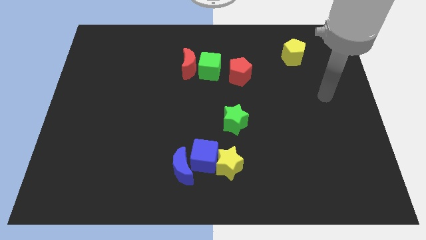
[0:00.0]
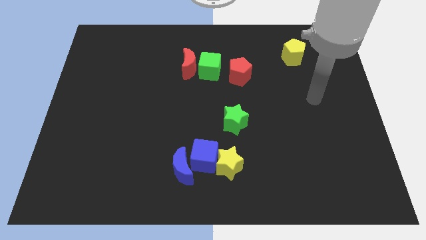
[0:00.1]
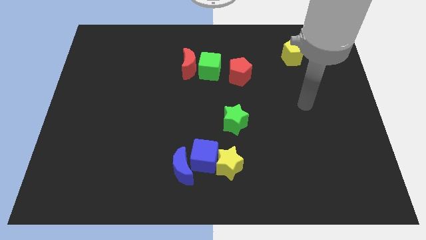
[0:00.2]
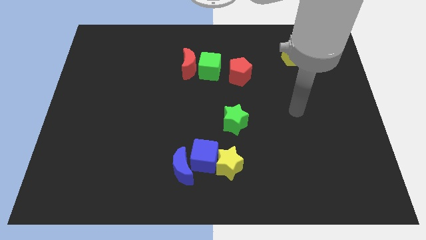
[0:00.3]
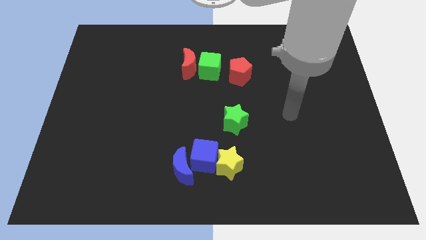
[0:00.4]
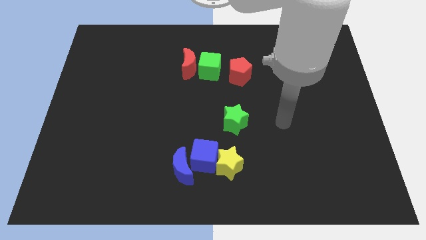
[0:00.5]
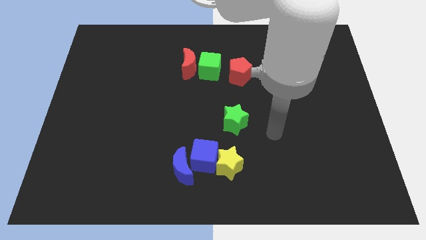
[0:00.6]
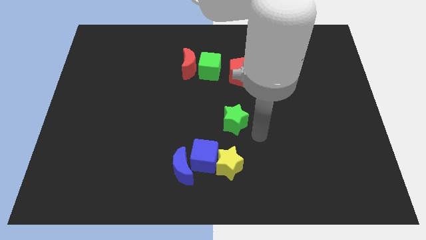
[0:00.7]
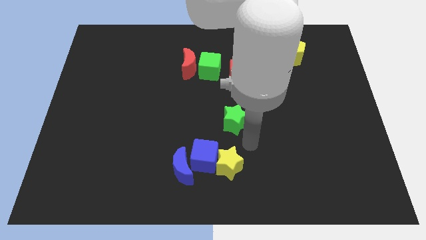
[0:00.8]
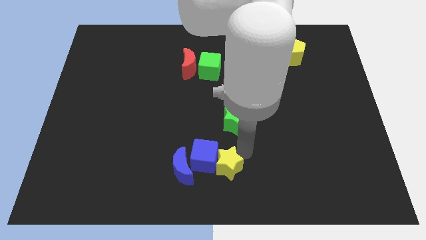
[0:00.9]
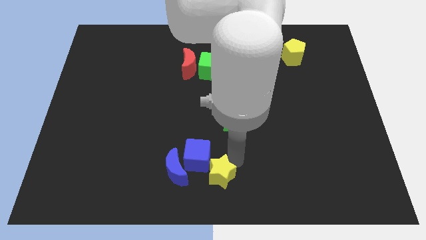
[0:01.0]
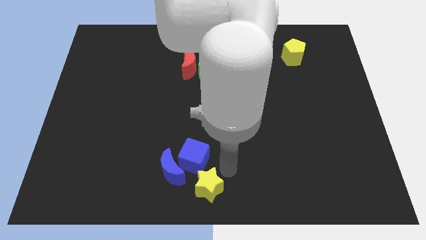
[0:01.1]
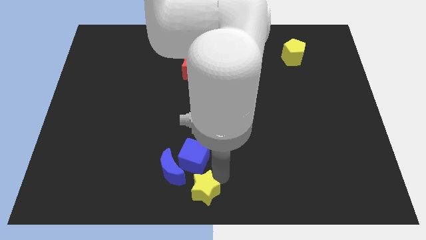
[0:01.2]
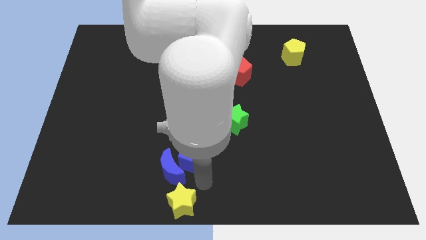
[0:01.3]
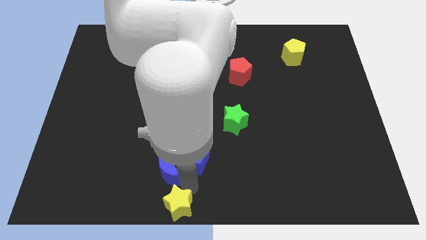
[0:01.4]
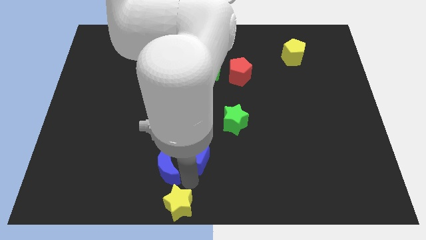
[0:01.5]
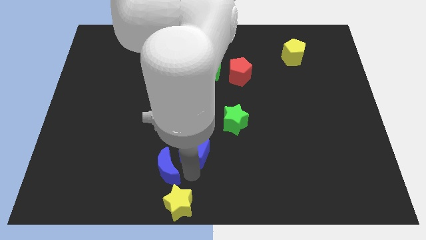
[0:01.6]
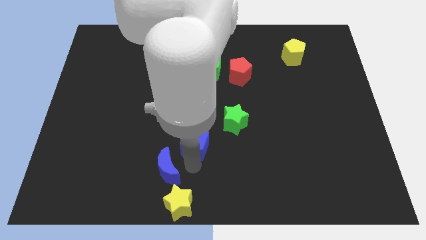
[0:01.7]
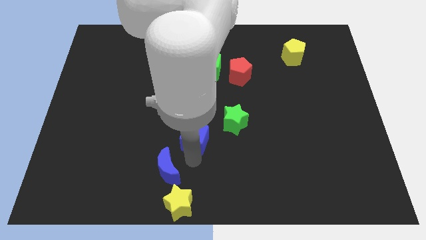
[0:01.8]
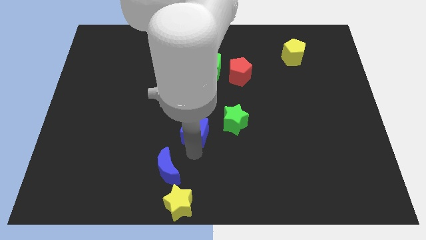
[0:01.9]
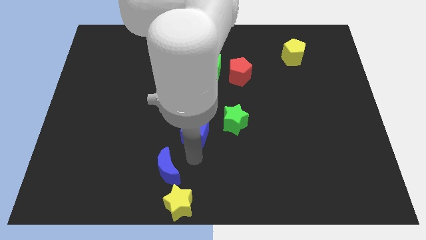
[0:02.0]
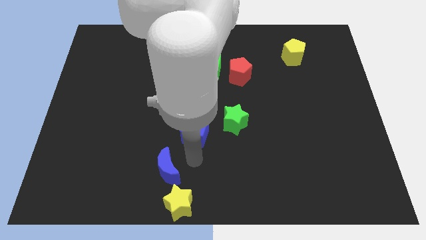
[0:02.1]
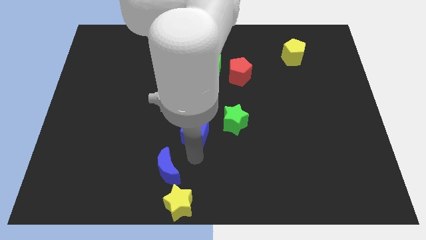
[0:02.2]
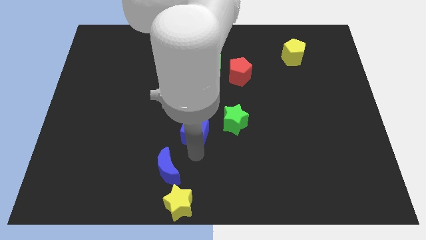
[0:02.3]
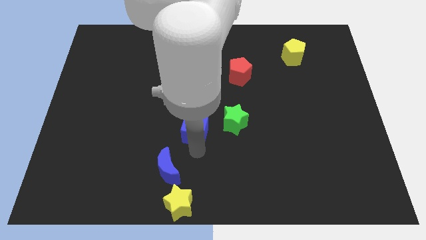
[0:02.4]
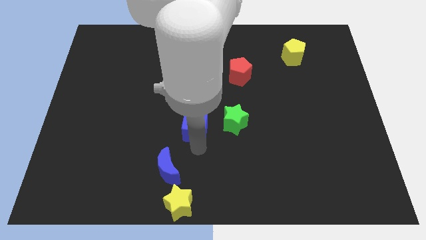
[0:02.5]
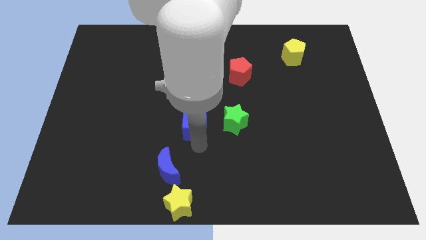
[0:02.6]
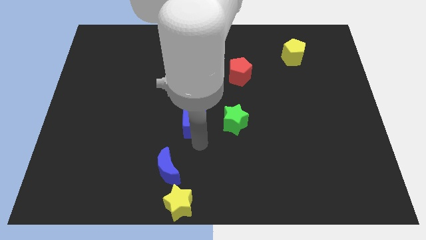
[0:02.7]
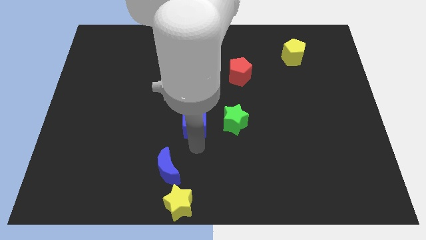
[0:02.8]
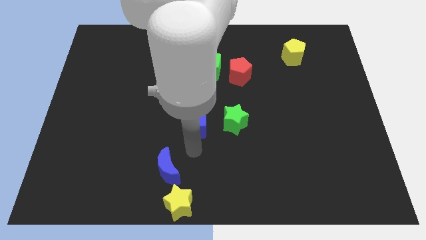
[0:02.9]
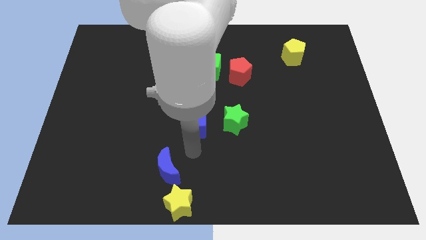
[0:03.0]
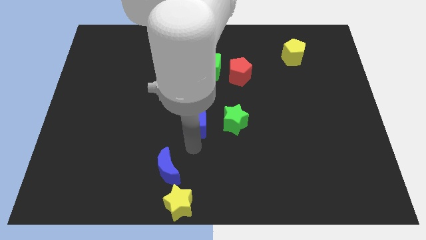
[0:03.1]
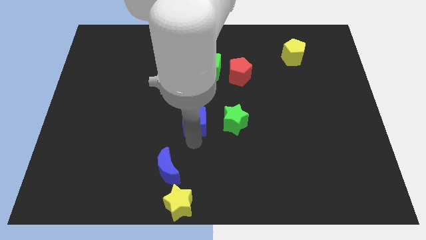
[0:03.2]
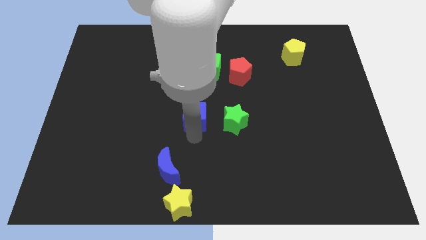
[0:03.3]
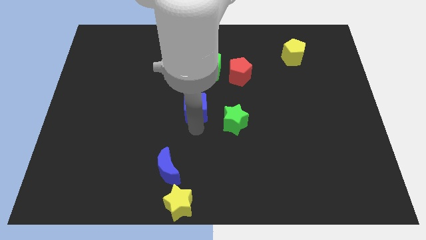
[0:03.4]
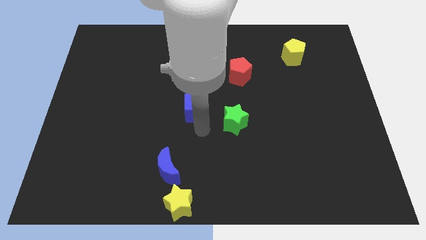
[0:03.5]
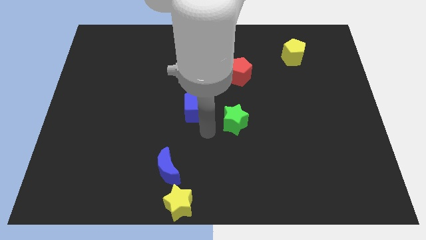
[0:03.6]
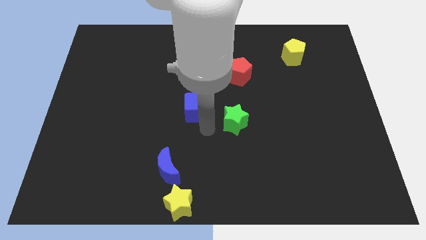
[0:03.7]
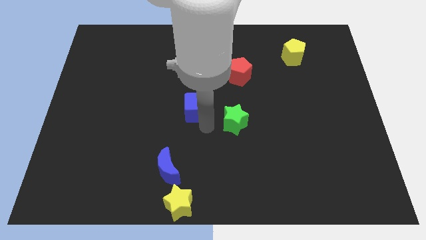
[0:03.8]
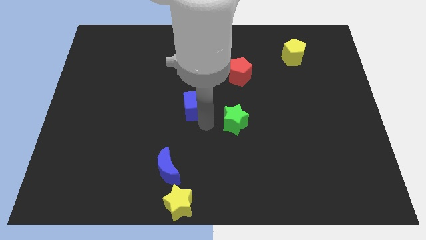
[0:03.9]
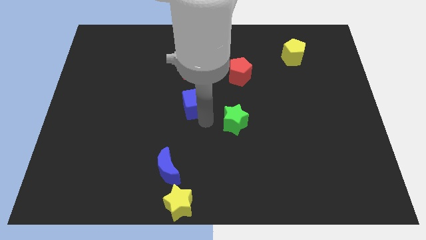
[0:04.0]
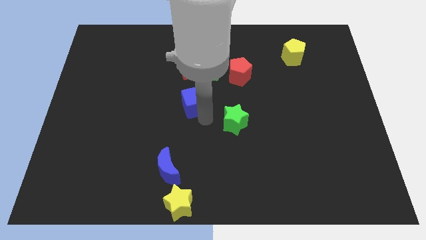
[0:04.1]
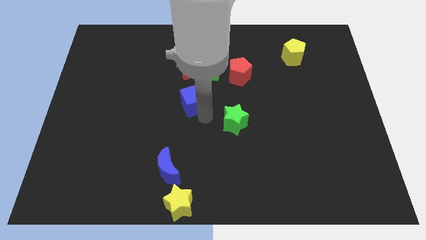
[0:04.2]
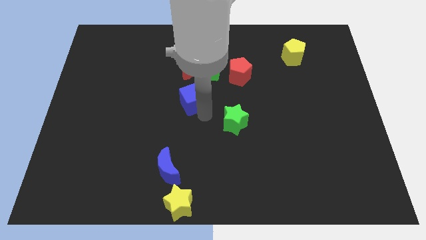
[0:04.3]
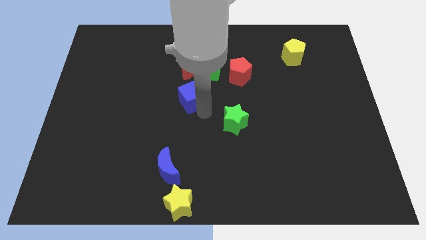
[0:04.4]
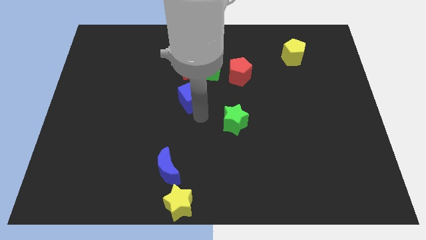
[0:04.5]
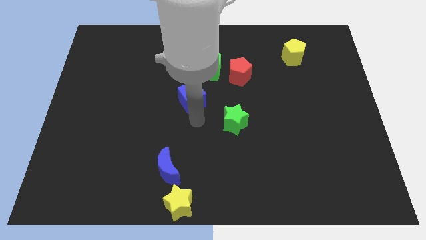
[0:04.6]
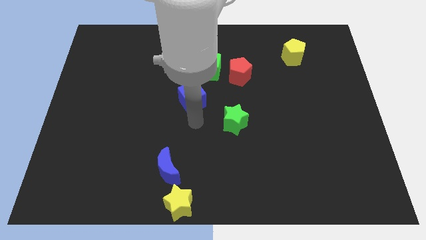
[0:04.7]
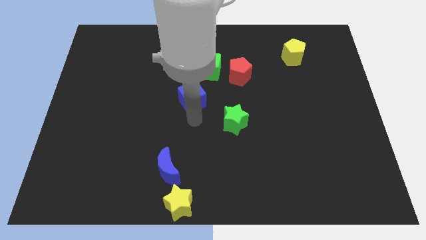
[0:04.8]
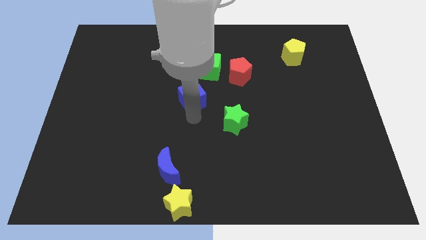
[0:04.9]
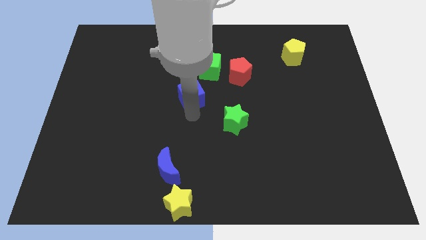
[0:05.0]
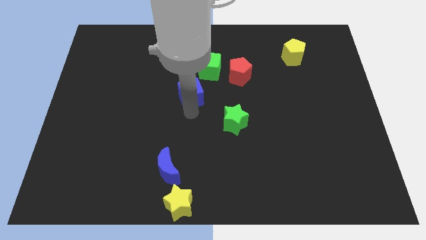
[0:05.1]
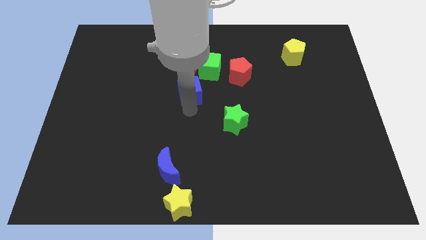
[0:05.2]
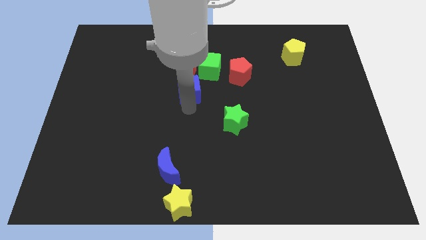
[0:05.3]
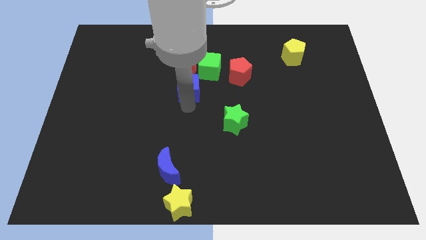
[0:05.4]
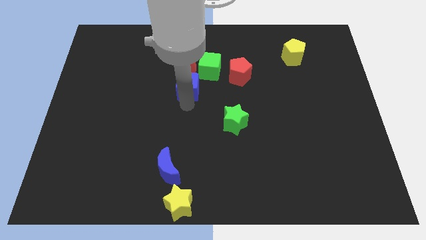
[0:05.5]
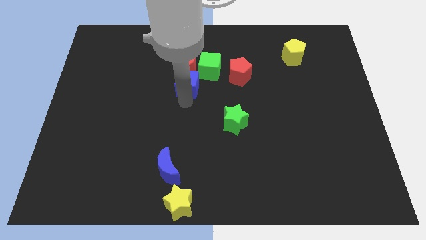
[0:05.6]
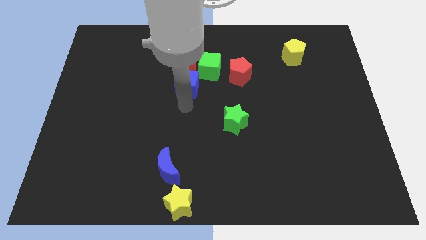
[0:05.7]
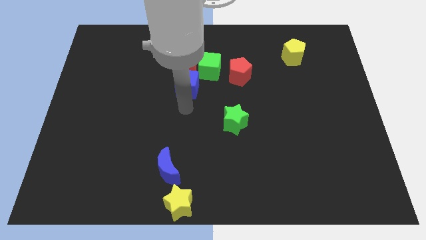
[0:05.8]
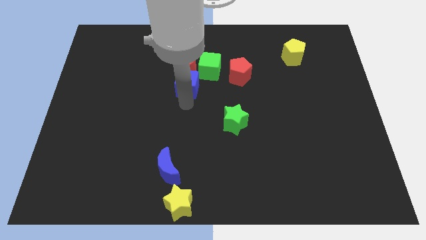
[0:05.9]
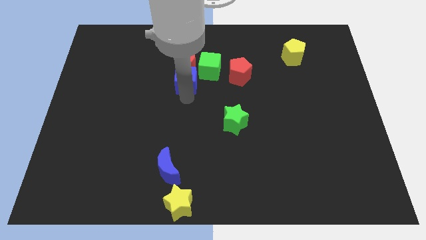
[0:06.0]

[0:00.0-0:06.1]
push the blue cube to the red moon
